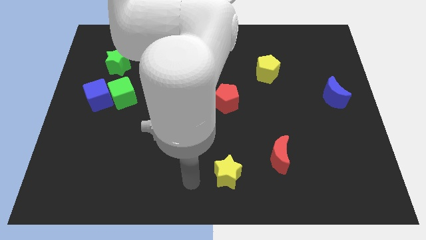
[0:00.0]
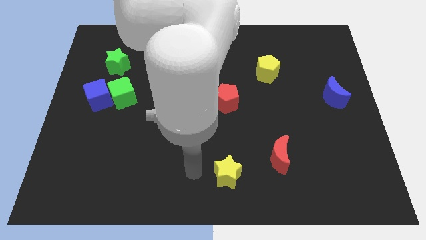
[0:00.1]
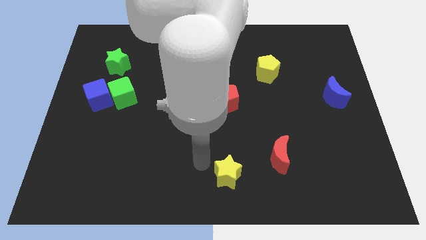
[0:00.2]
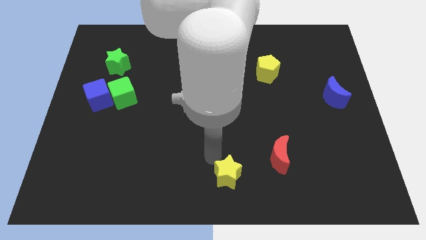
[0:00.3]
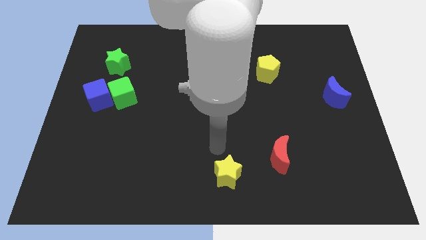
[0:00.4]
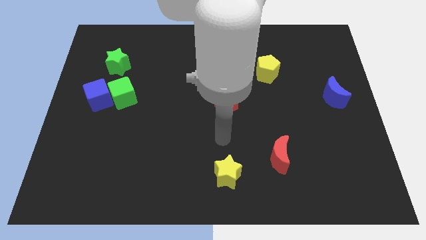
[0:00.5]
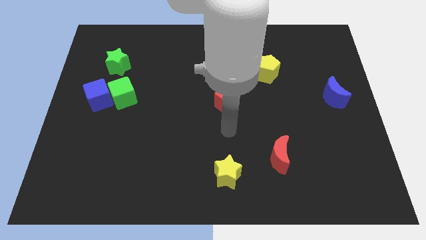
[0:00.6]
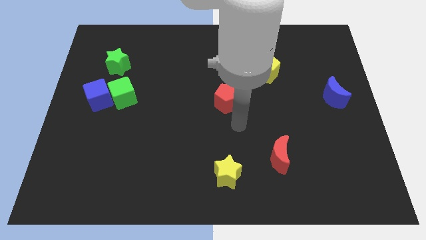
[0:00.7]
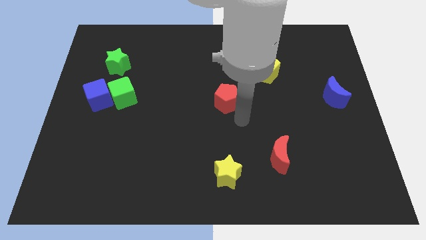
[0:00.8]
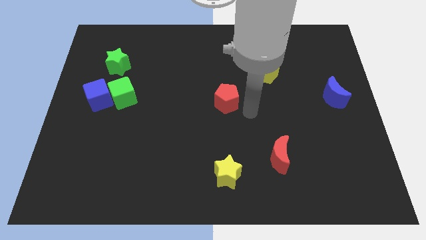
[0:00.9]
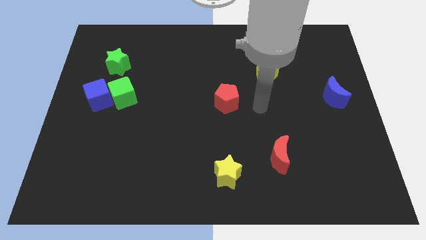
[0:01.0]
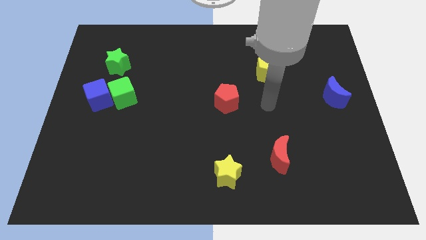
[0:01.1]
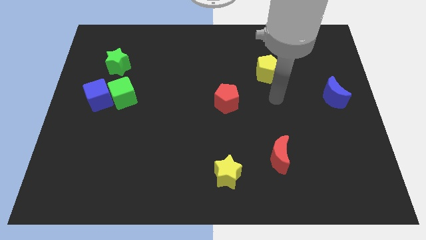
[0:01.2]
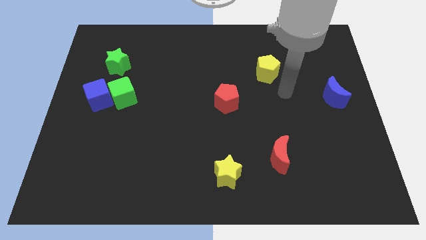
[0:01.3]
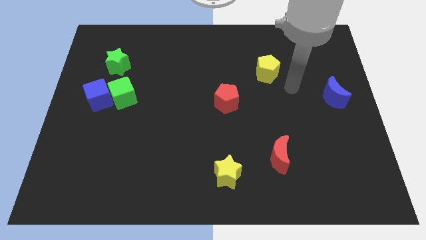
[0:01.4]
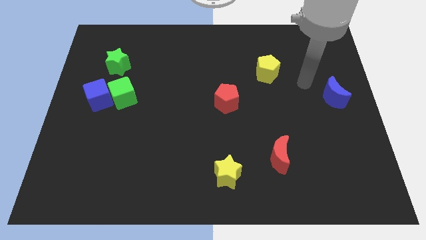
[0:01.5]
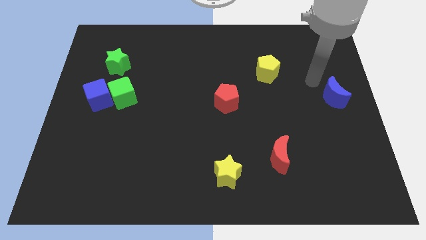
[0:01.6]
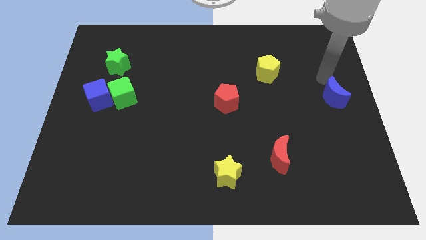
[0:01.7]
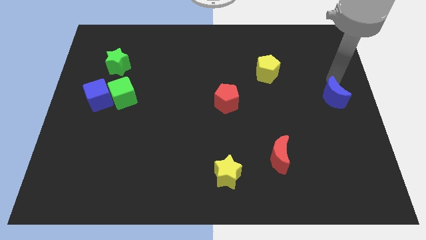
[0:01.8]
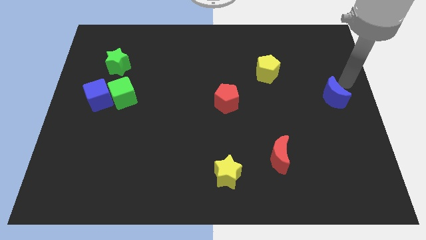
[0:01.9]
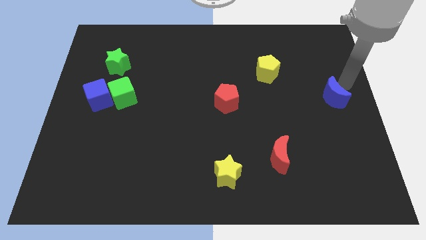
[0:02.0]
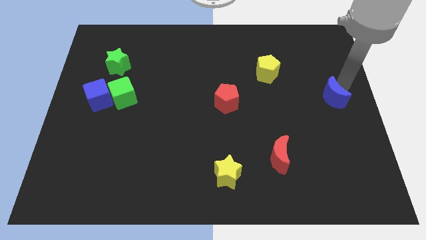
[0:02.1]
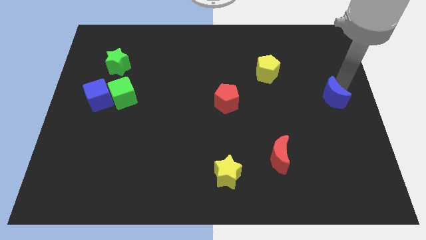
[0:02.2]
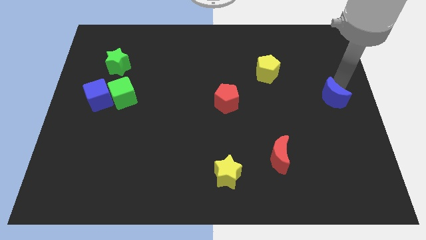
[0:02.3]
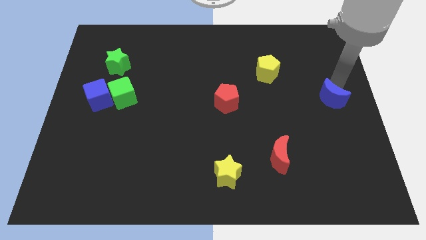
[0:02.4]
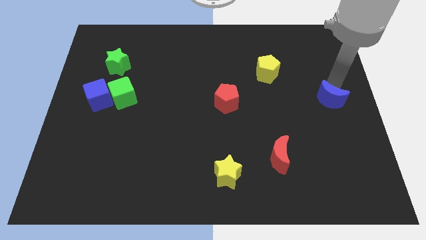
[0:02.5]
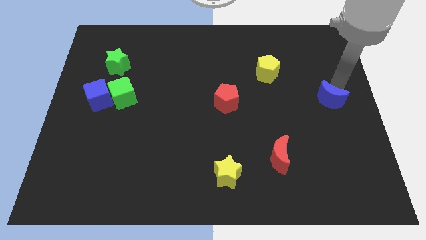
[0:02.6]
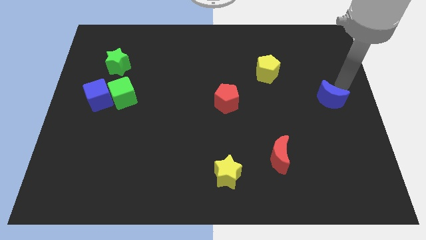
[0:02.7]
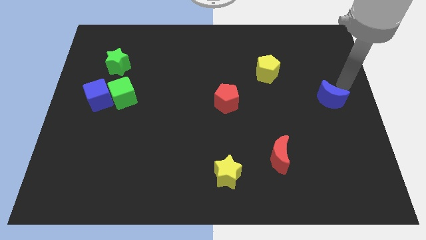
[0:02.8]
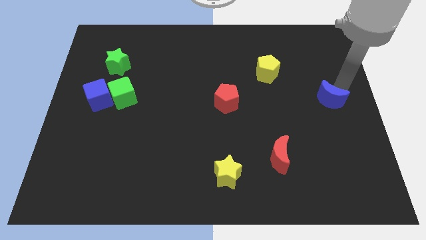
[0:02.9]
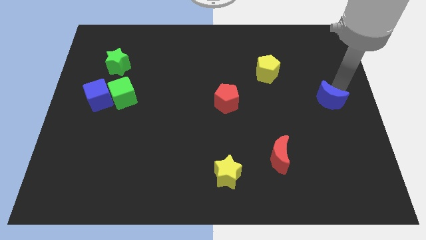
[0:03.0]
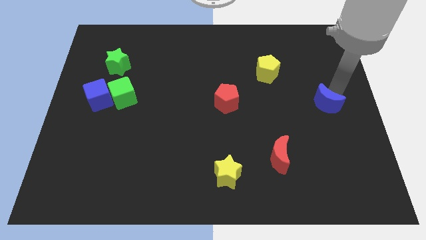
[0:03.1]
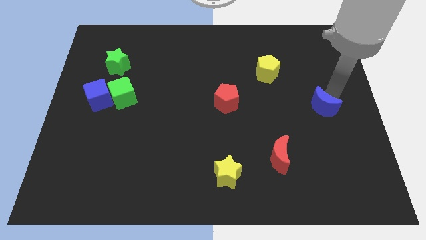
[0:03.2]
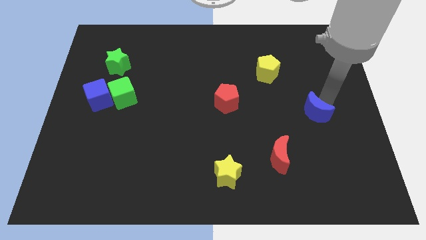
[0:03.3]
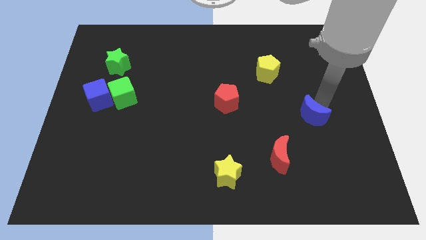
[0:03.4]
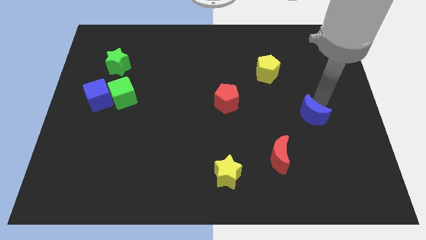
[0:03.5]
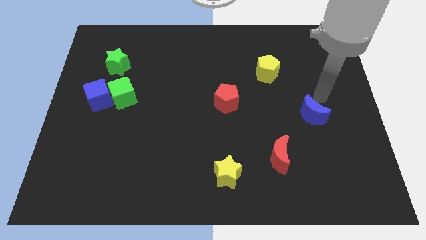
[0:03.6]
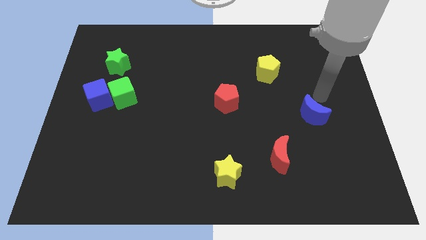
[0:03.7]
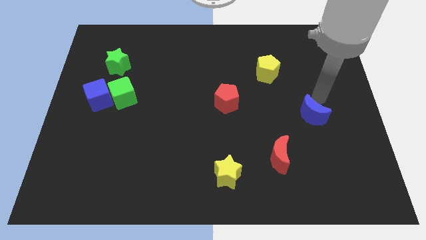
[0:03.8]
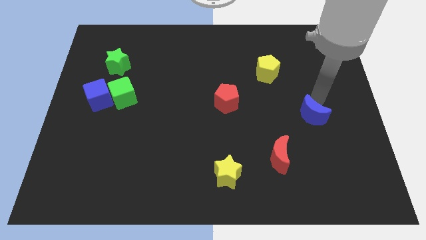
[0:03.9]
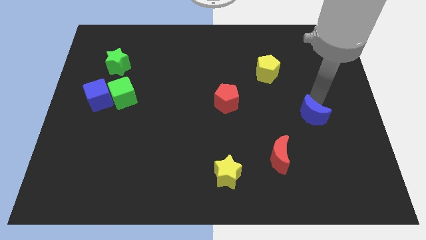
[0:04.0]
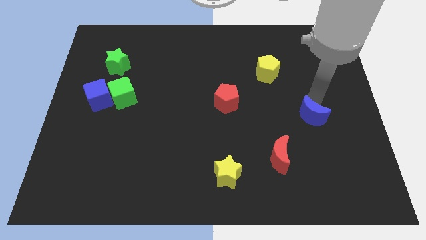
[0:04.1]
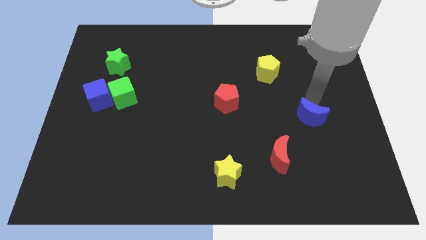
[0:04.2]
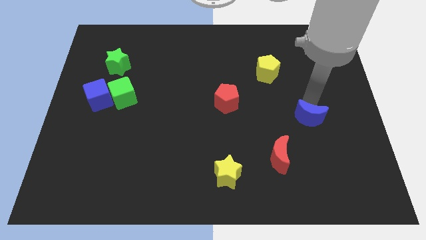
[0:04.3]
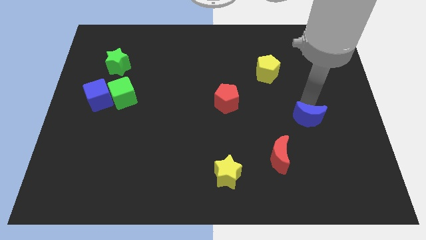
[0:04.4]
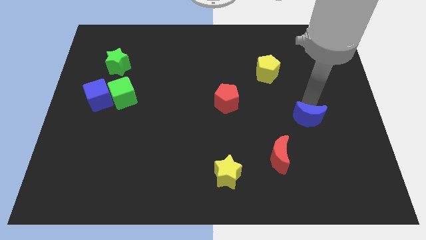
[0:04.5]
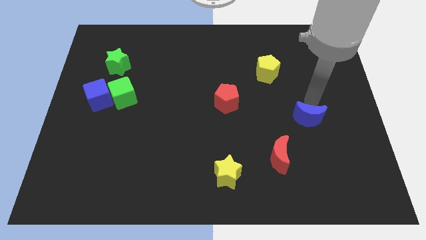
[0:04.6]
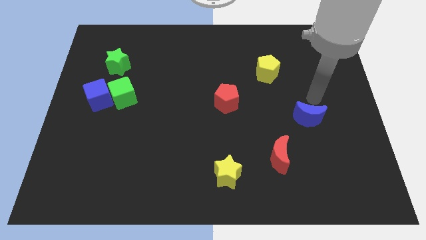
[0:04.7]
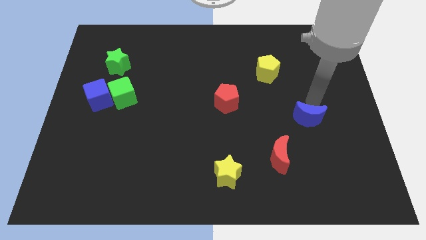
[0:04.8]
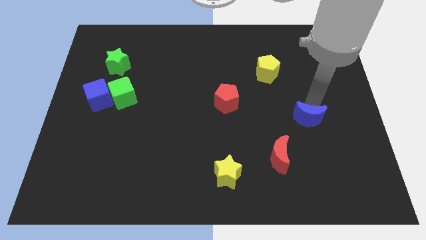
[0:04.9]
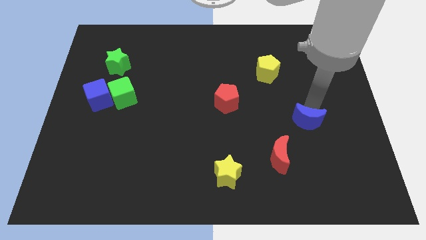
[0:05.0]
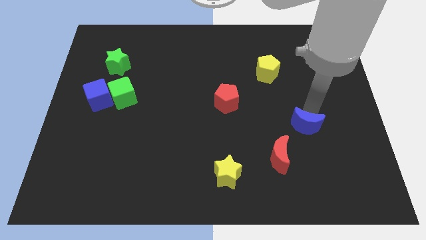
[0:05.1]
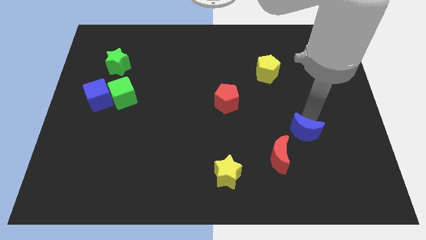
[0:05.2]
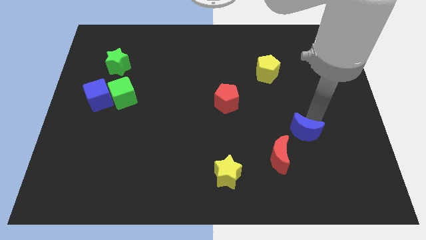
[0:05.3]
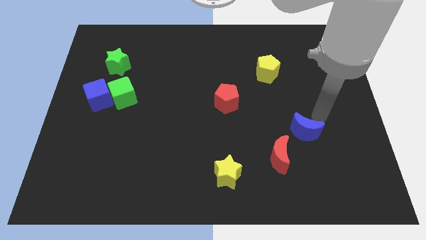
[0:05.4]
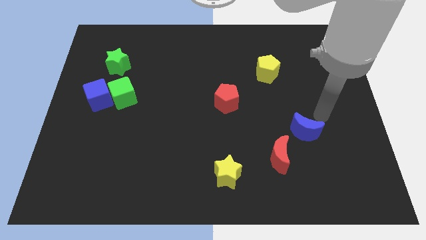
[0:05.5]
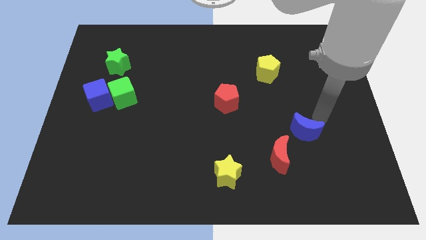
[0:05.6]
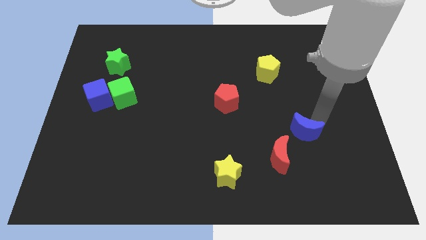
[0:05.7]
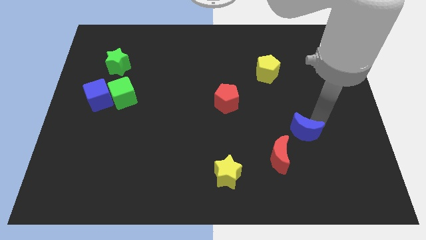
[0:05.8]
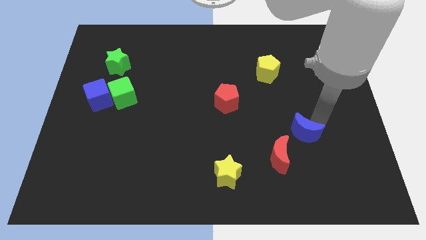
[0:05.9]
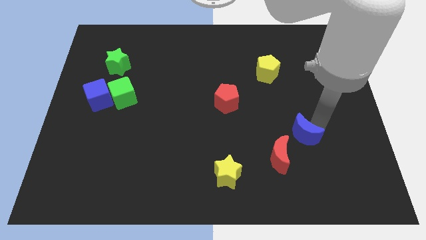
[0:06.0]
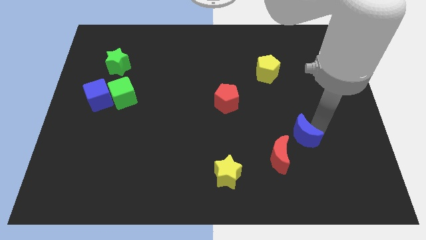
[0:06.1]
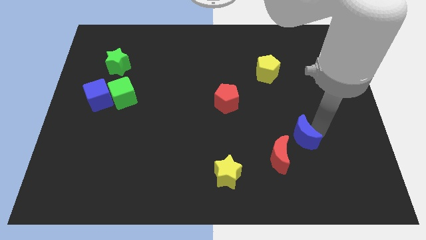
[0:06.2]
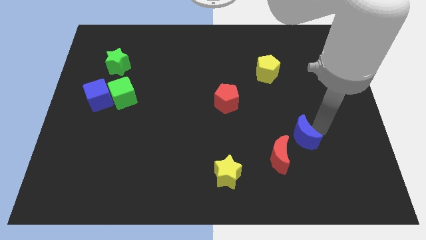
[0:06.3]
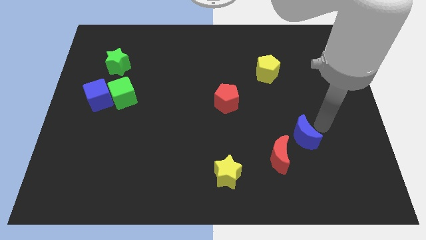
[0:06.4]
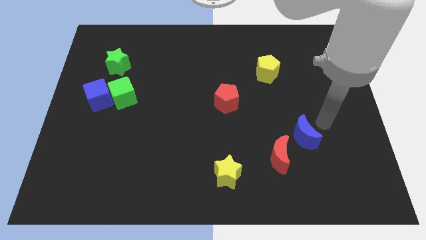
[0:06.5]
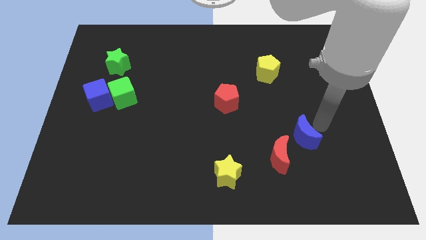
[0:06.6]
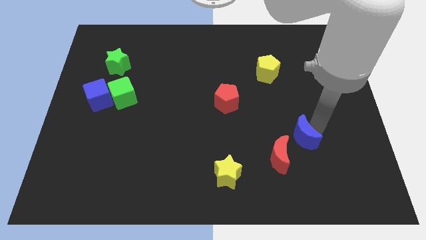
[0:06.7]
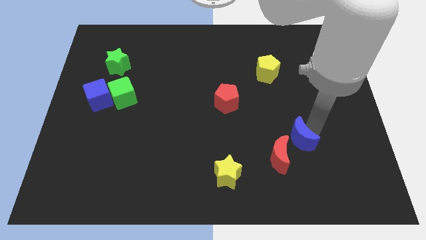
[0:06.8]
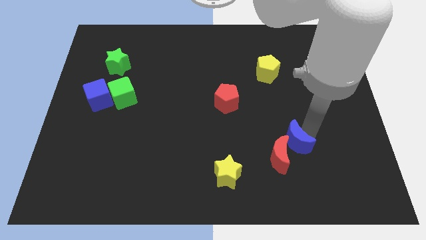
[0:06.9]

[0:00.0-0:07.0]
slide the blue moon next to the red moon

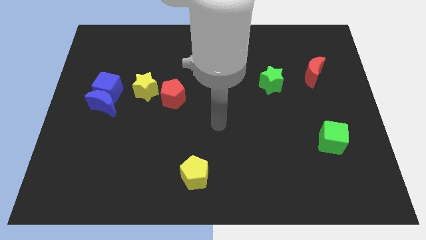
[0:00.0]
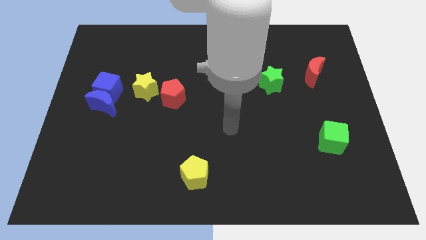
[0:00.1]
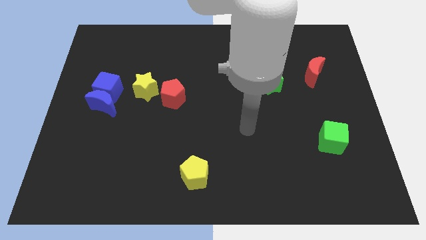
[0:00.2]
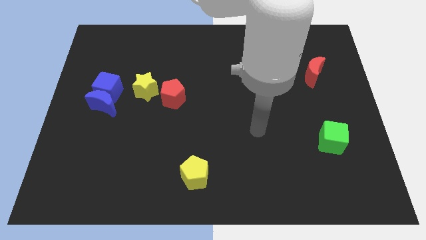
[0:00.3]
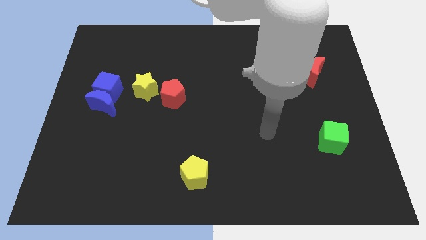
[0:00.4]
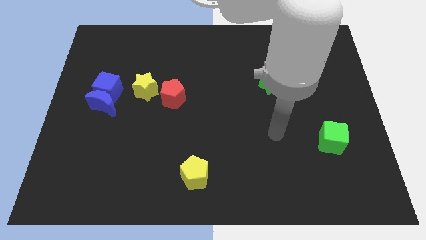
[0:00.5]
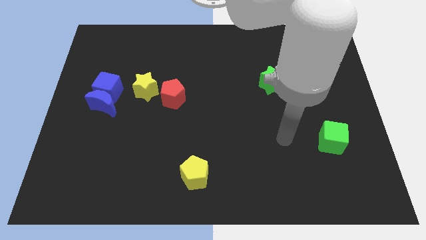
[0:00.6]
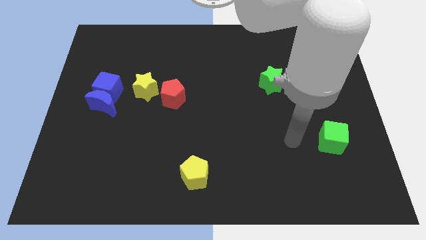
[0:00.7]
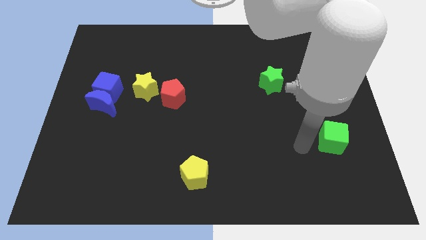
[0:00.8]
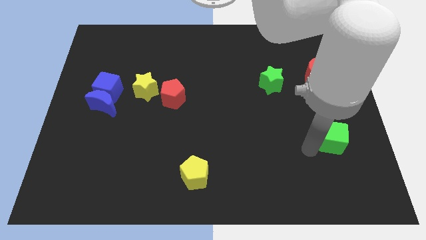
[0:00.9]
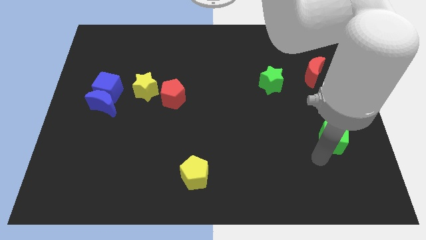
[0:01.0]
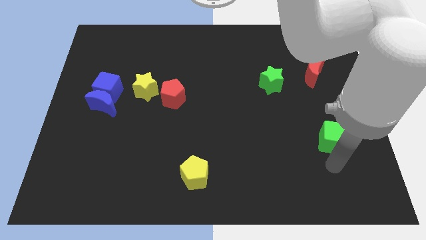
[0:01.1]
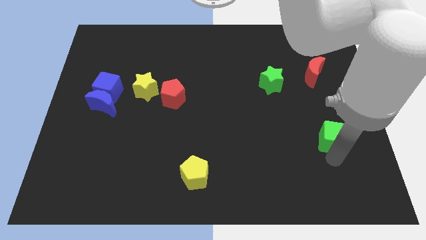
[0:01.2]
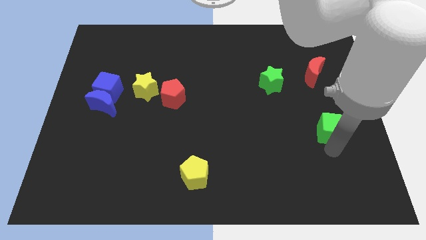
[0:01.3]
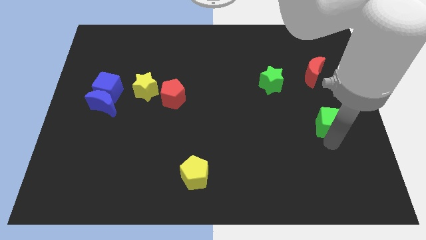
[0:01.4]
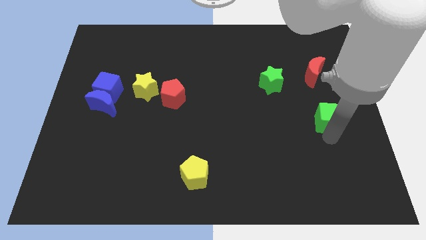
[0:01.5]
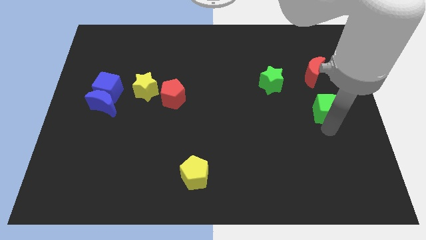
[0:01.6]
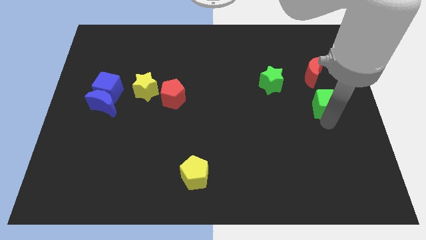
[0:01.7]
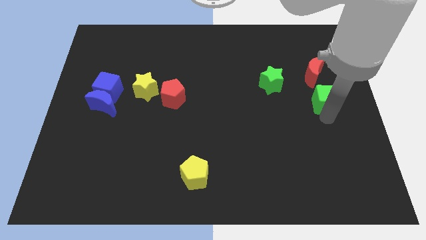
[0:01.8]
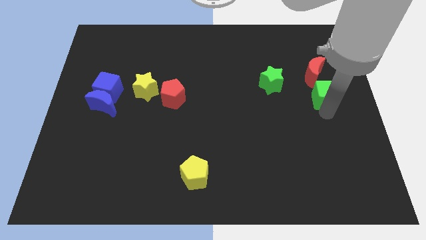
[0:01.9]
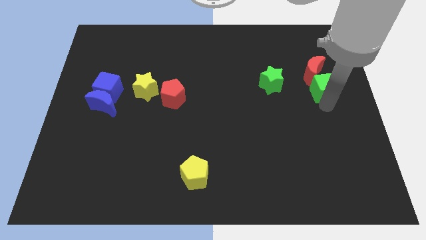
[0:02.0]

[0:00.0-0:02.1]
move the green cube close to the red moon
